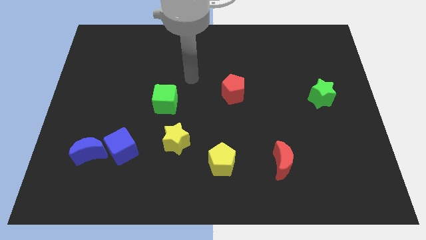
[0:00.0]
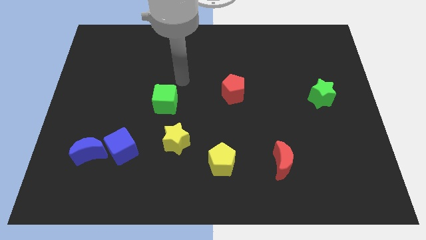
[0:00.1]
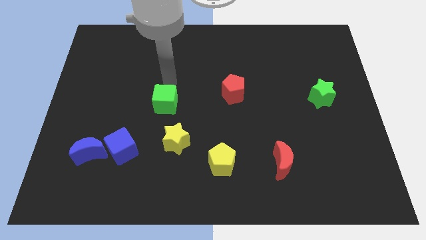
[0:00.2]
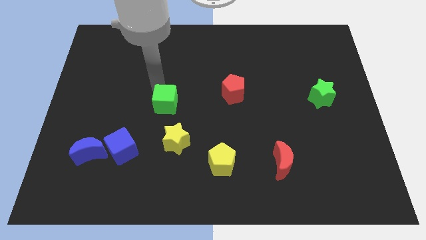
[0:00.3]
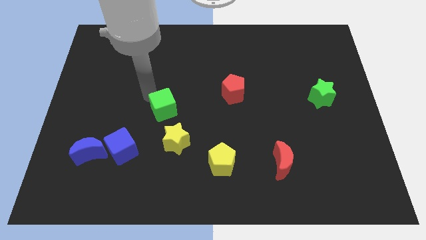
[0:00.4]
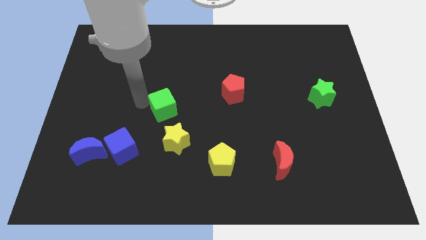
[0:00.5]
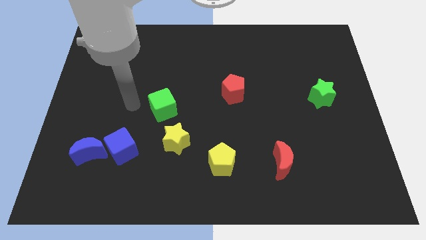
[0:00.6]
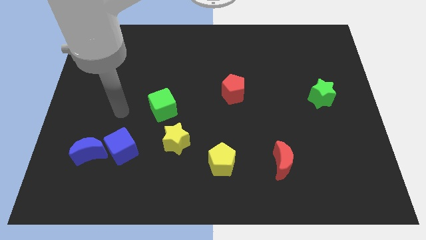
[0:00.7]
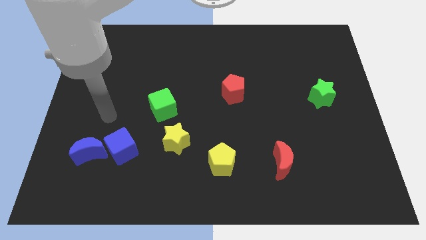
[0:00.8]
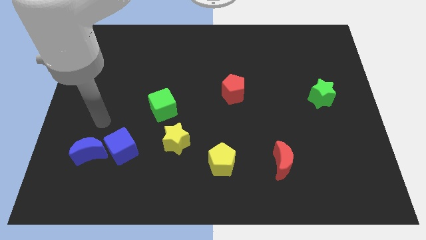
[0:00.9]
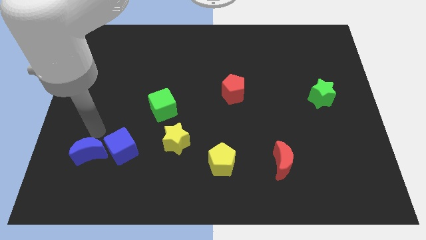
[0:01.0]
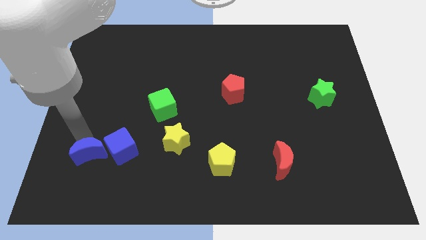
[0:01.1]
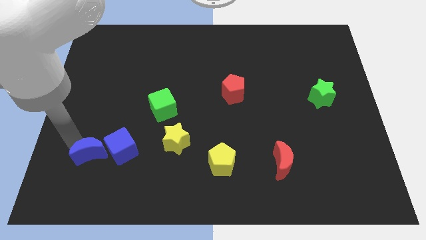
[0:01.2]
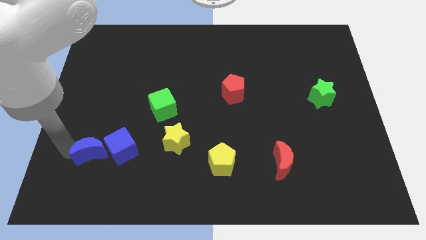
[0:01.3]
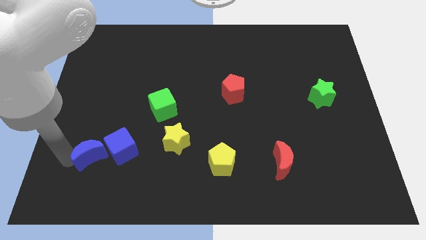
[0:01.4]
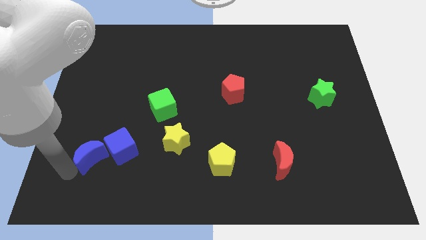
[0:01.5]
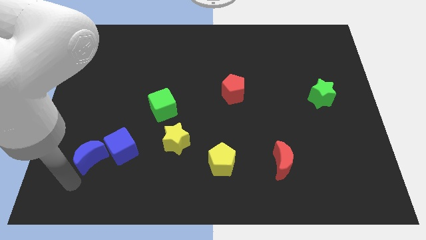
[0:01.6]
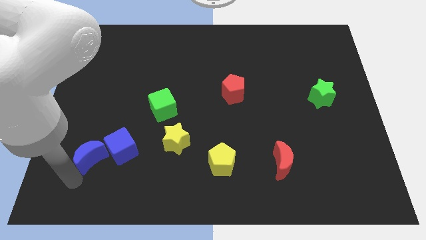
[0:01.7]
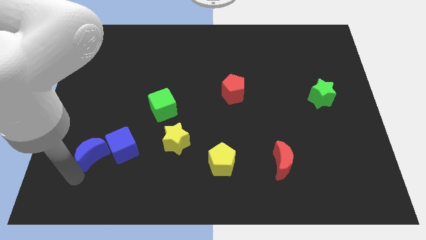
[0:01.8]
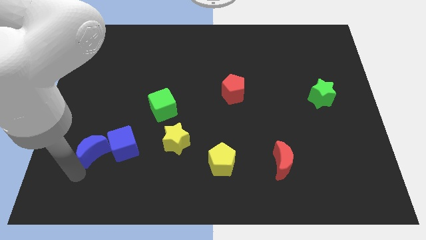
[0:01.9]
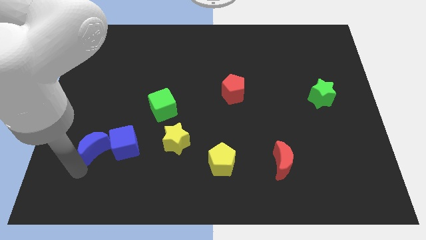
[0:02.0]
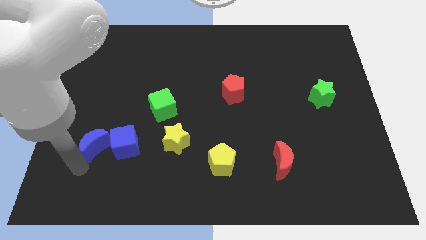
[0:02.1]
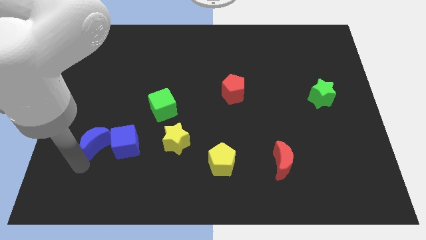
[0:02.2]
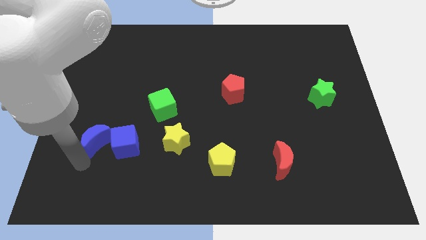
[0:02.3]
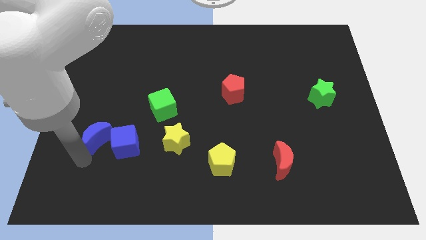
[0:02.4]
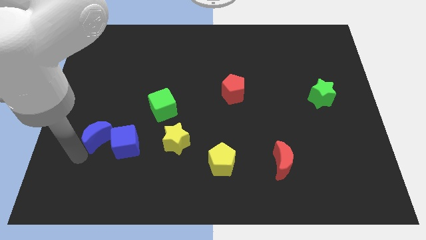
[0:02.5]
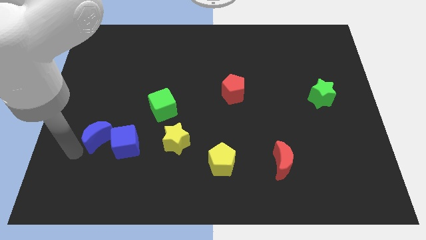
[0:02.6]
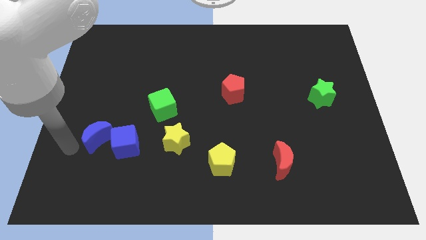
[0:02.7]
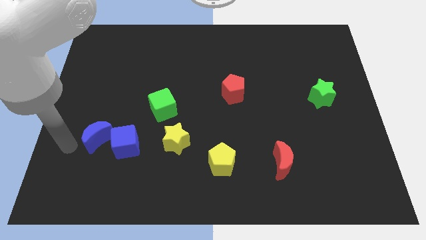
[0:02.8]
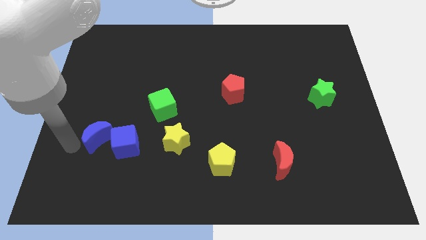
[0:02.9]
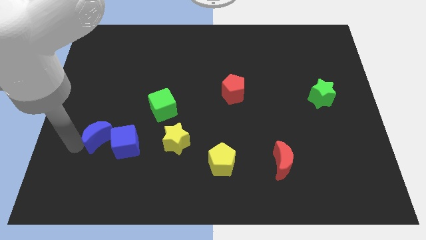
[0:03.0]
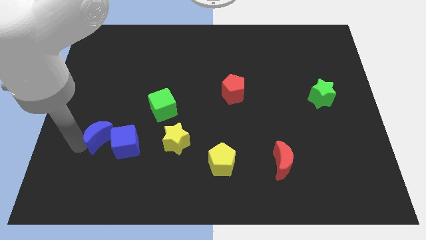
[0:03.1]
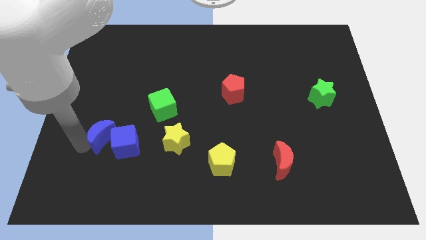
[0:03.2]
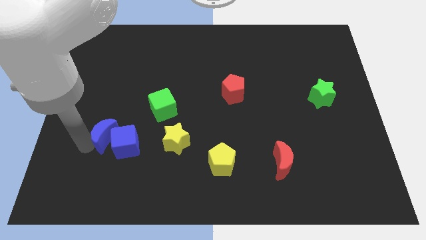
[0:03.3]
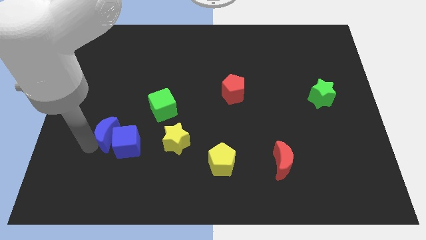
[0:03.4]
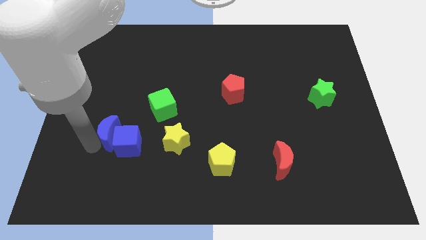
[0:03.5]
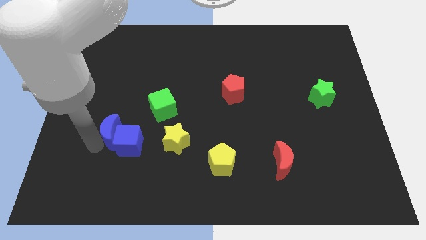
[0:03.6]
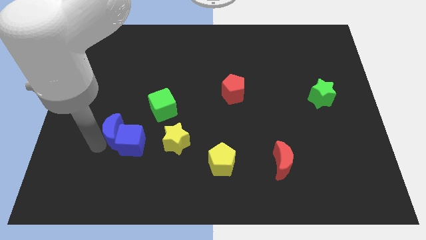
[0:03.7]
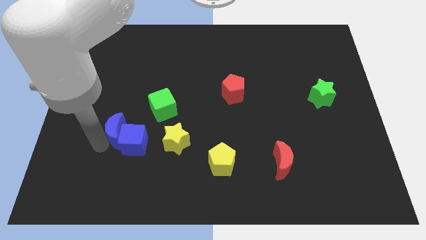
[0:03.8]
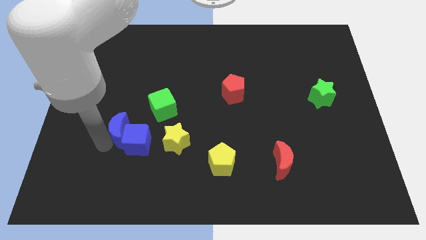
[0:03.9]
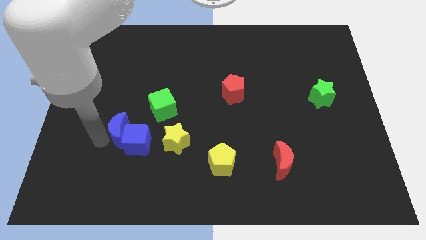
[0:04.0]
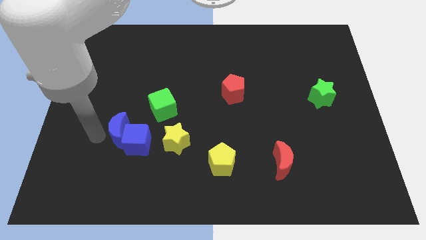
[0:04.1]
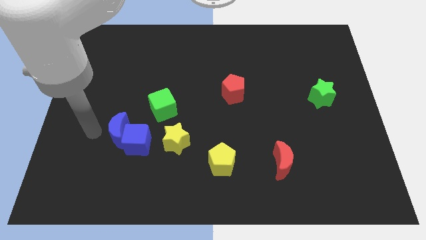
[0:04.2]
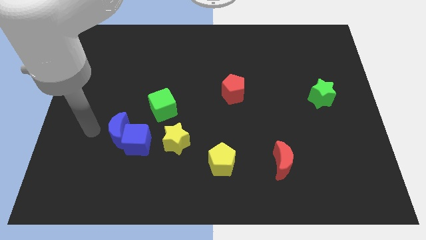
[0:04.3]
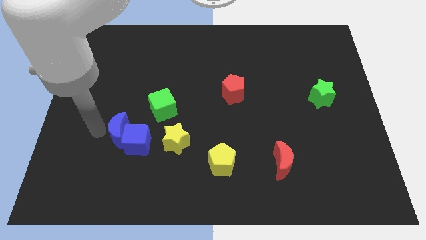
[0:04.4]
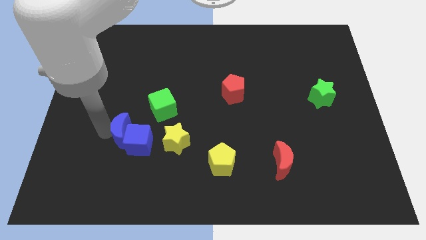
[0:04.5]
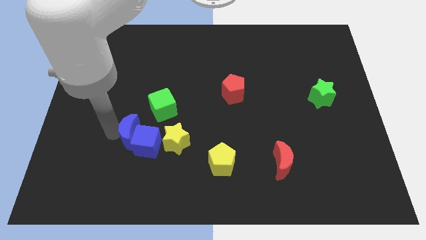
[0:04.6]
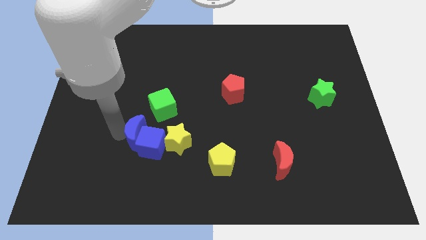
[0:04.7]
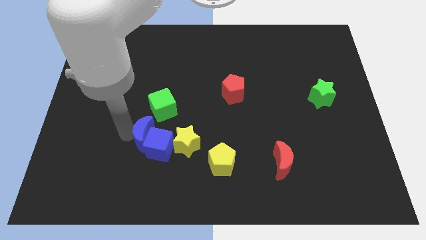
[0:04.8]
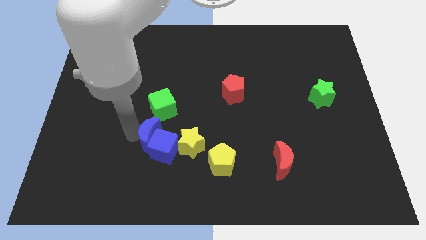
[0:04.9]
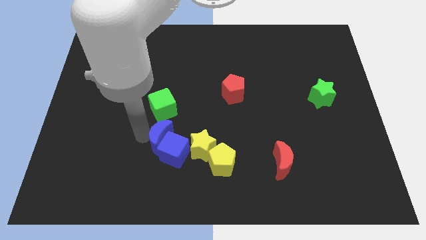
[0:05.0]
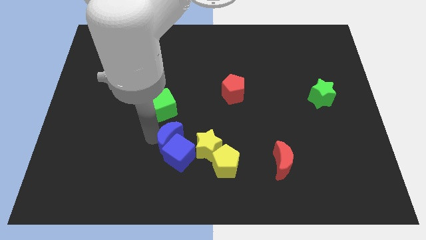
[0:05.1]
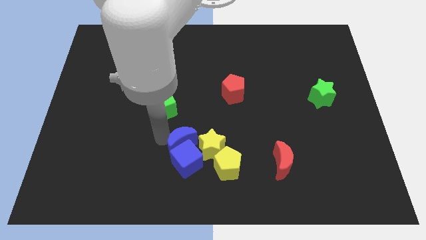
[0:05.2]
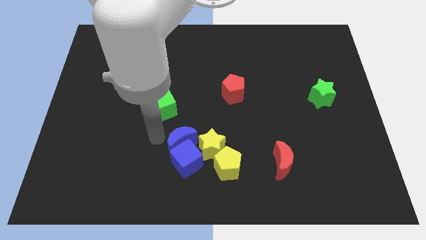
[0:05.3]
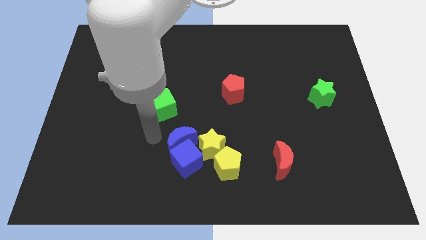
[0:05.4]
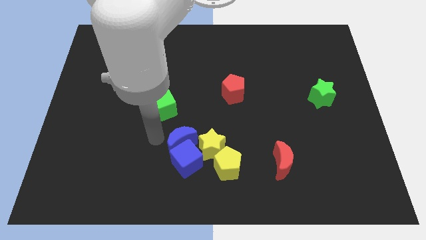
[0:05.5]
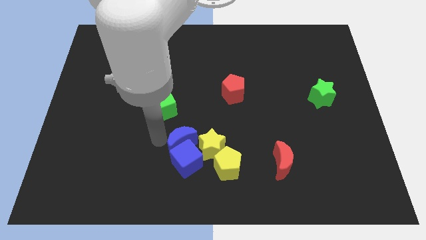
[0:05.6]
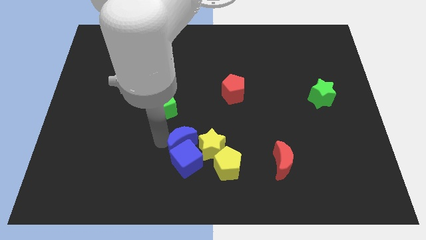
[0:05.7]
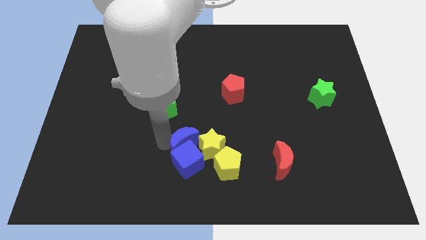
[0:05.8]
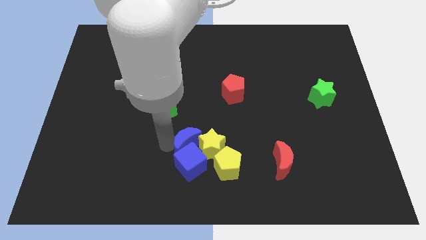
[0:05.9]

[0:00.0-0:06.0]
put the blue moon to the yellow star
